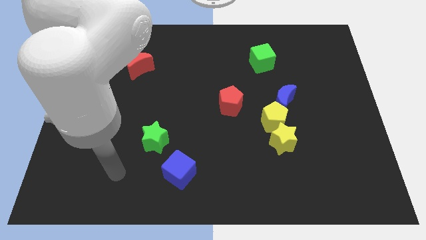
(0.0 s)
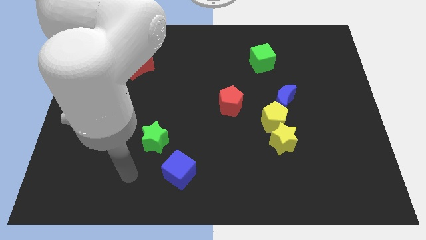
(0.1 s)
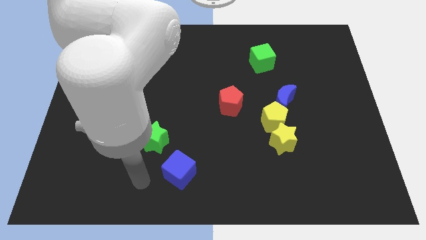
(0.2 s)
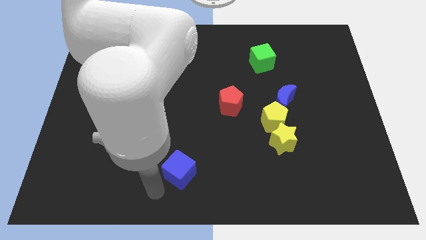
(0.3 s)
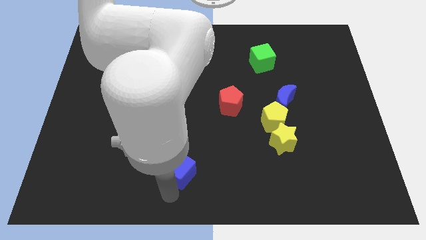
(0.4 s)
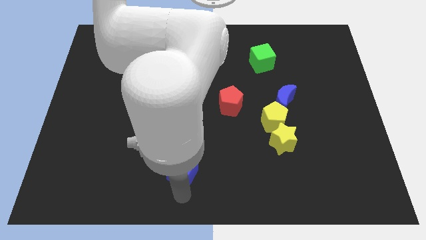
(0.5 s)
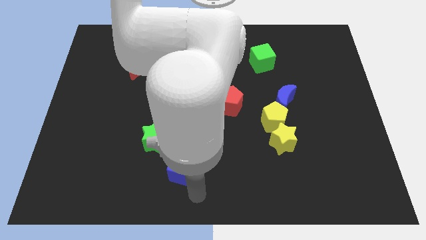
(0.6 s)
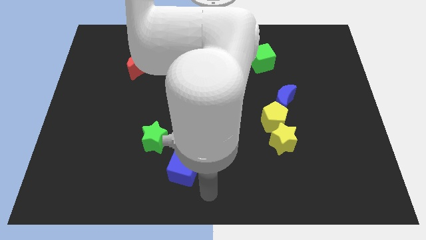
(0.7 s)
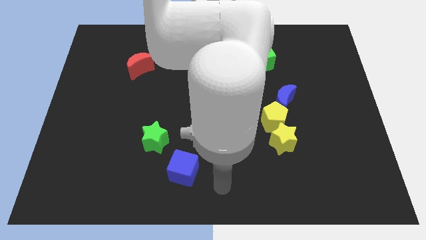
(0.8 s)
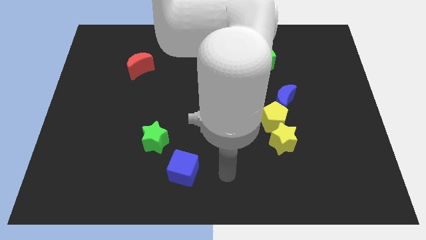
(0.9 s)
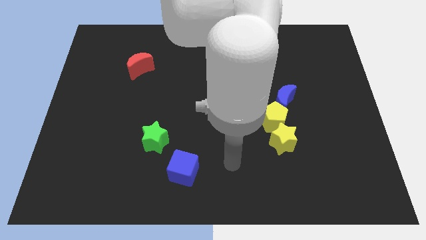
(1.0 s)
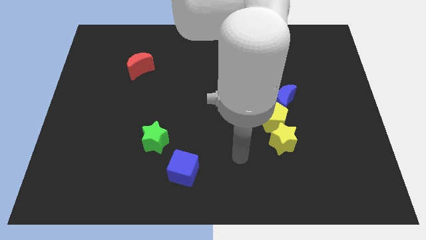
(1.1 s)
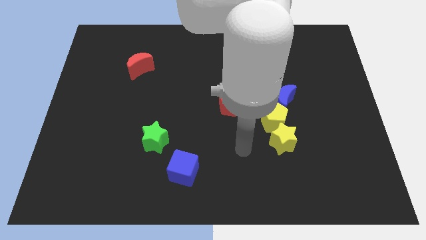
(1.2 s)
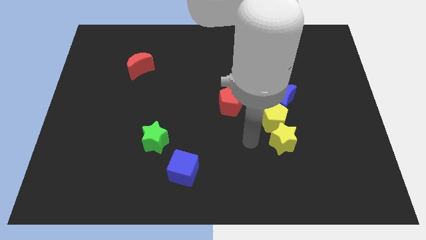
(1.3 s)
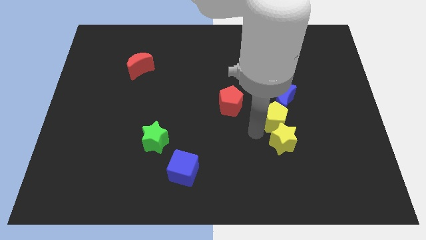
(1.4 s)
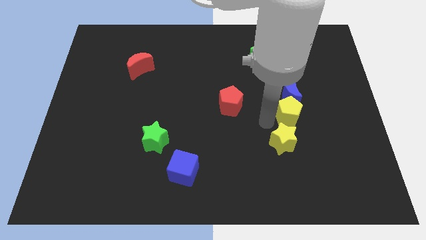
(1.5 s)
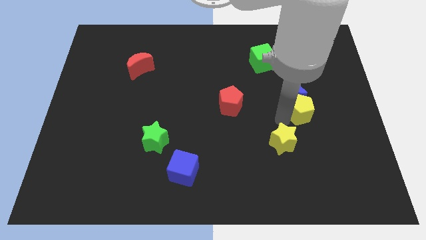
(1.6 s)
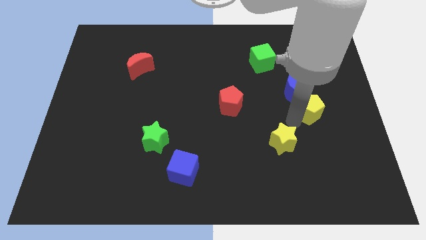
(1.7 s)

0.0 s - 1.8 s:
move the yellow star away from the yellow pentagon

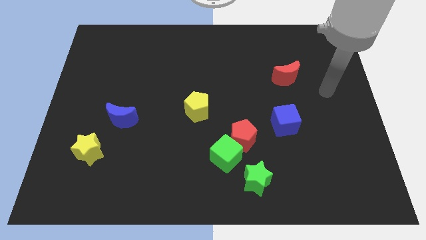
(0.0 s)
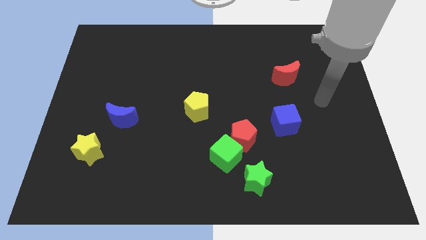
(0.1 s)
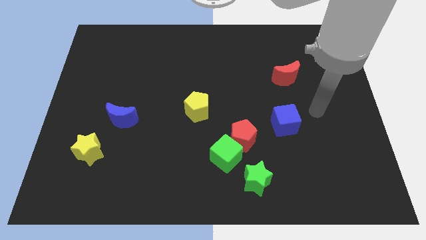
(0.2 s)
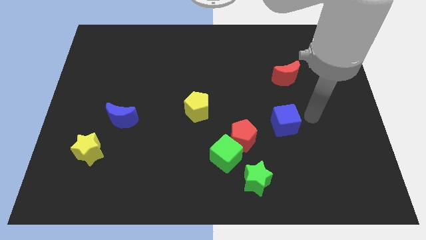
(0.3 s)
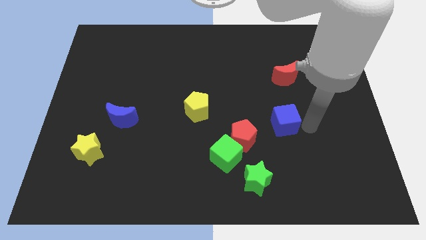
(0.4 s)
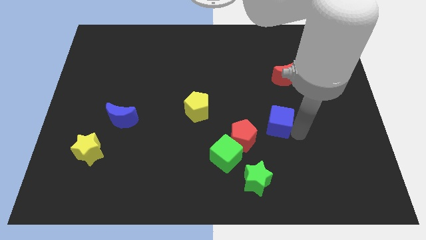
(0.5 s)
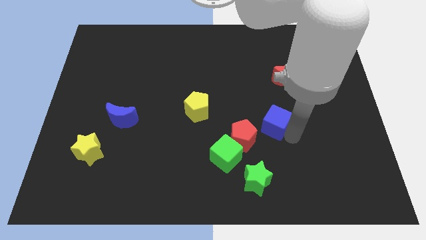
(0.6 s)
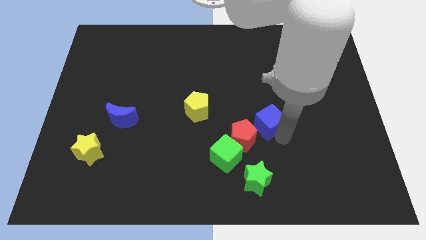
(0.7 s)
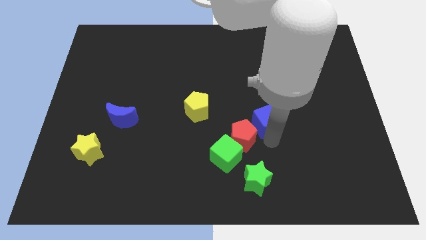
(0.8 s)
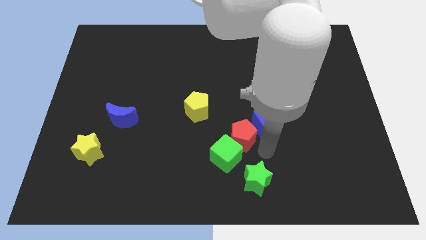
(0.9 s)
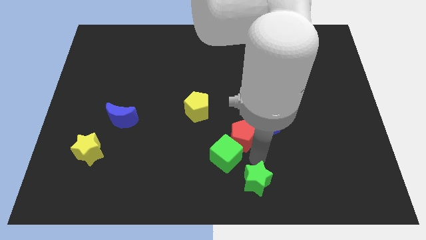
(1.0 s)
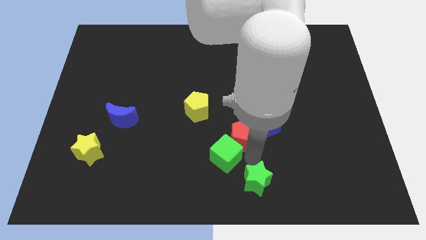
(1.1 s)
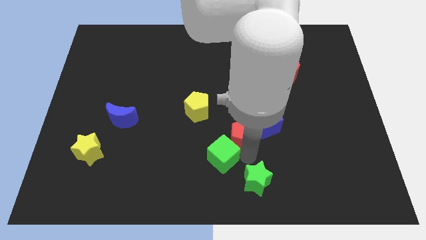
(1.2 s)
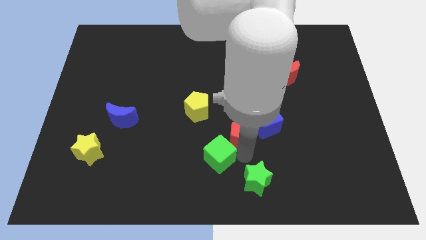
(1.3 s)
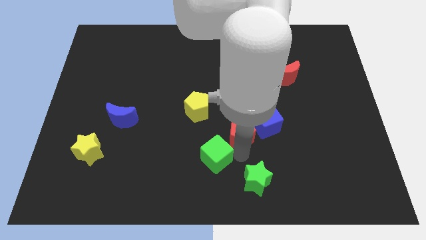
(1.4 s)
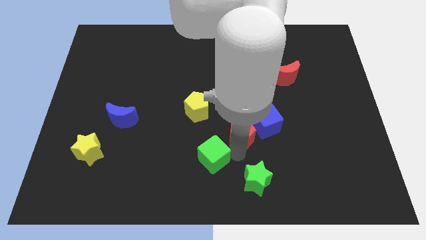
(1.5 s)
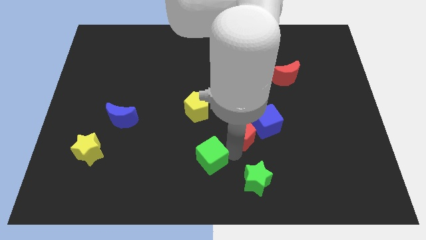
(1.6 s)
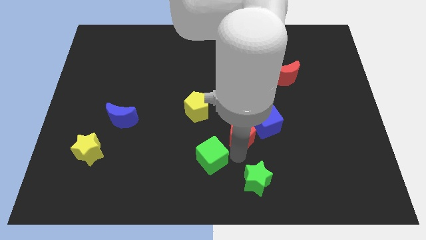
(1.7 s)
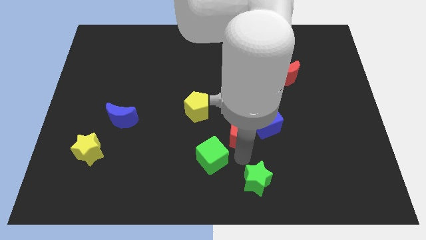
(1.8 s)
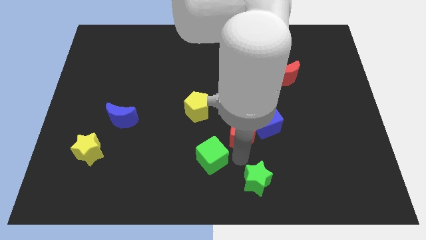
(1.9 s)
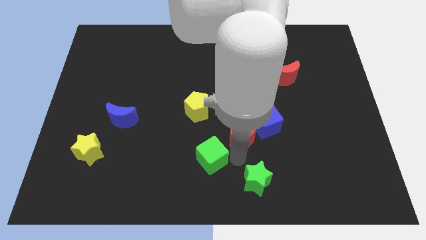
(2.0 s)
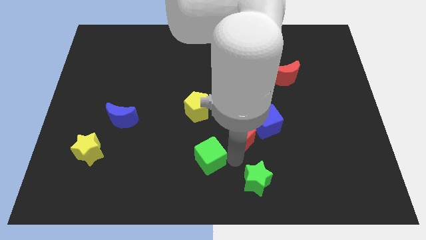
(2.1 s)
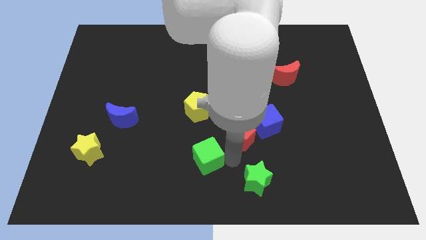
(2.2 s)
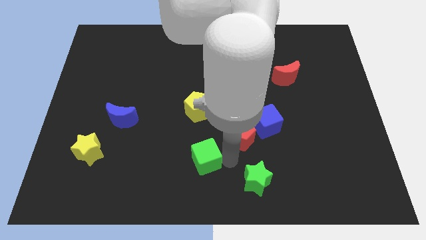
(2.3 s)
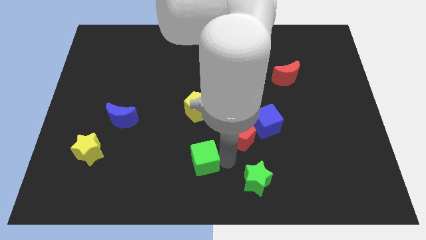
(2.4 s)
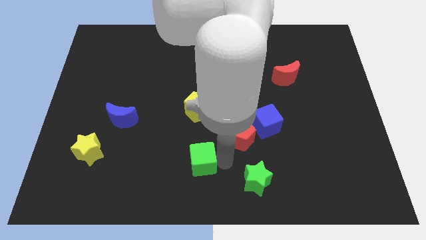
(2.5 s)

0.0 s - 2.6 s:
separate the green cube from the red pentagon and green star

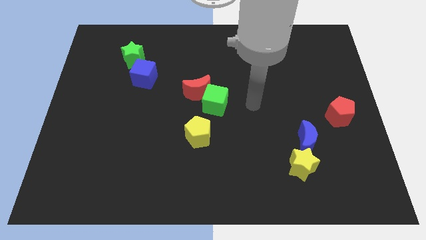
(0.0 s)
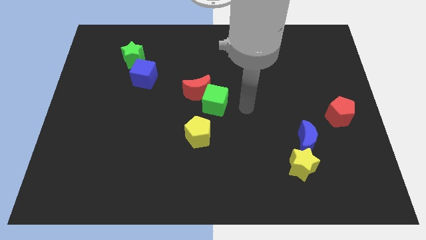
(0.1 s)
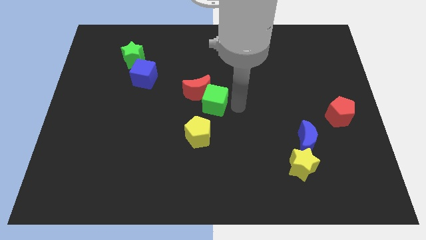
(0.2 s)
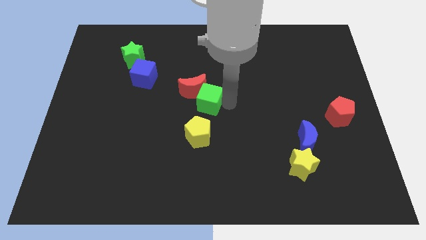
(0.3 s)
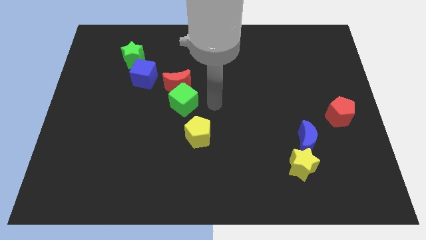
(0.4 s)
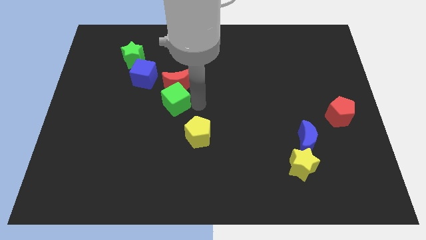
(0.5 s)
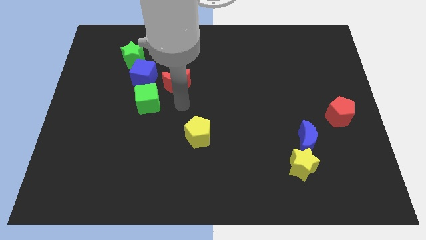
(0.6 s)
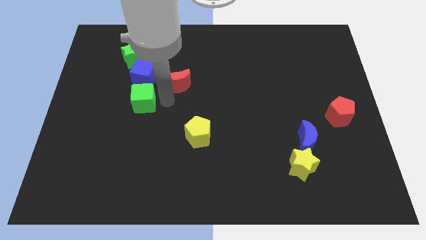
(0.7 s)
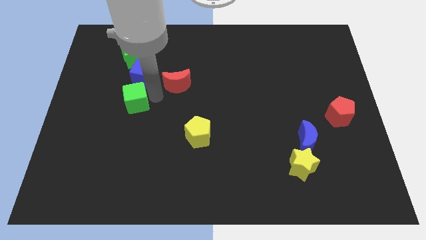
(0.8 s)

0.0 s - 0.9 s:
move the red moon away from the green cube

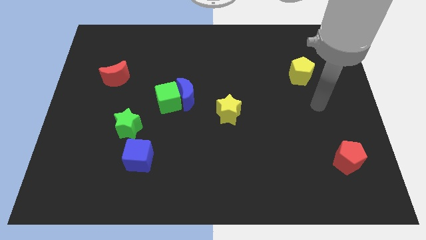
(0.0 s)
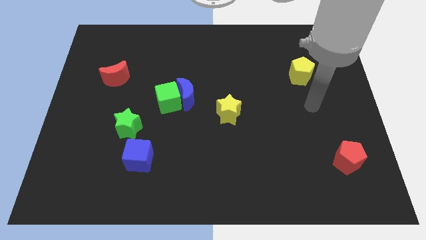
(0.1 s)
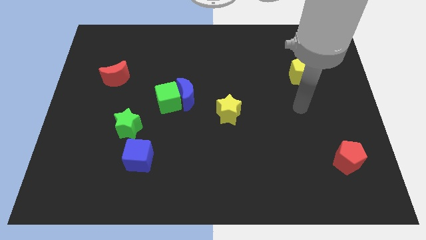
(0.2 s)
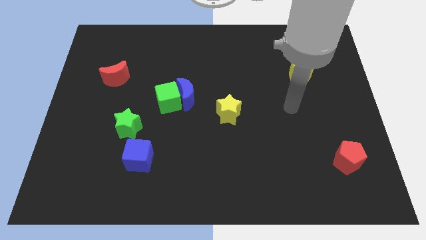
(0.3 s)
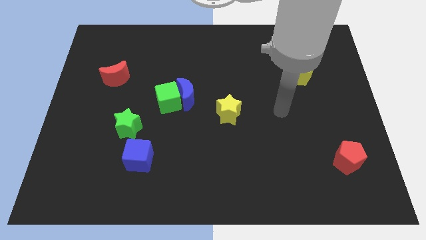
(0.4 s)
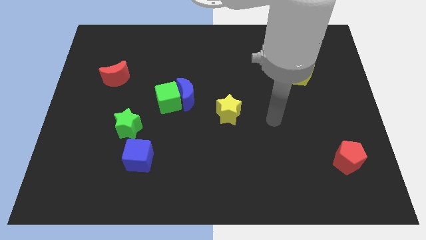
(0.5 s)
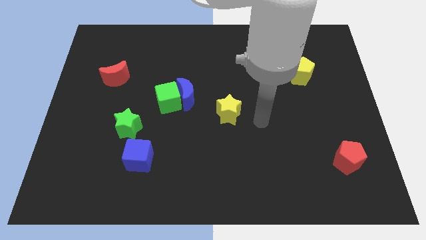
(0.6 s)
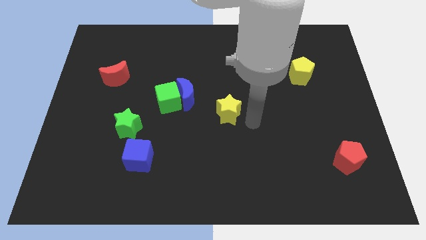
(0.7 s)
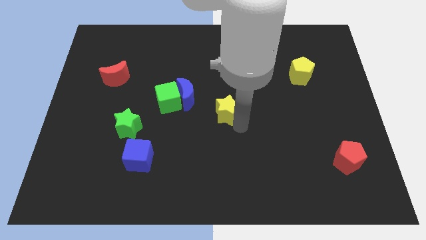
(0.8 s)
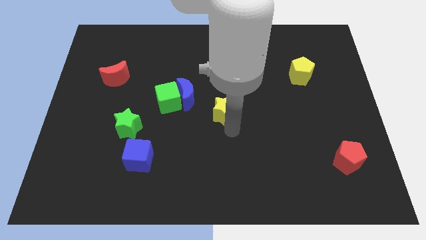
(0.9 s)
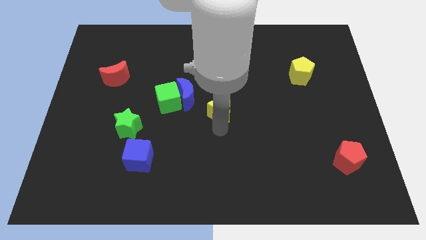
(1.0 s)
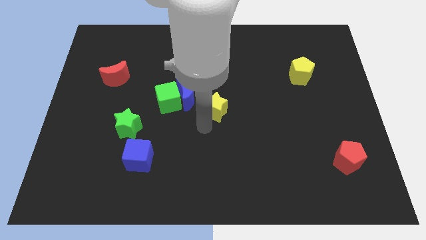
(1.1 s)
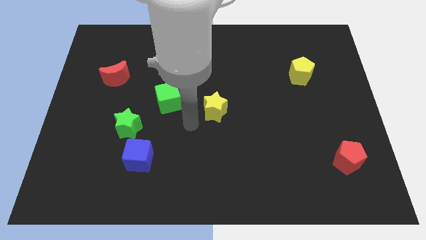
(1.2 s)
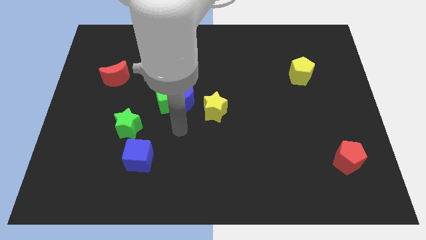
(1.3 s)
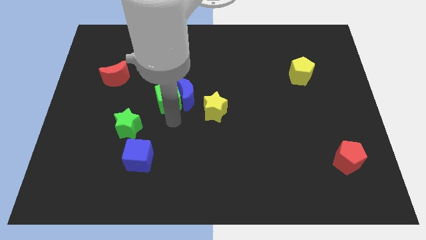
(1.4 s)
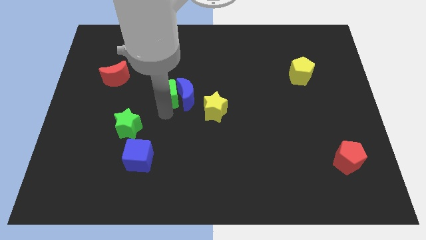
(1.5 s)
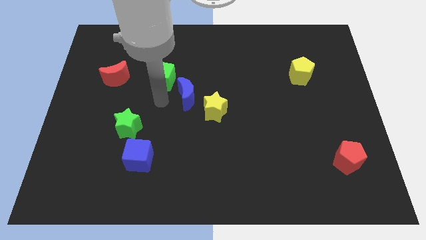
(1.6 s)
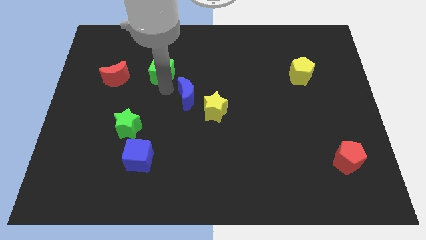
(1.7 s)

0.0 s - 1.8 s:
separate the blue moon from the green cube

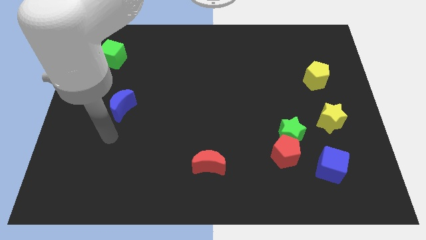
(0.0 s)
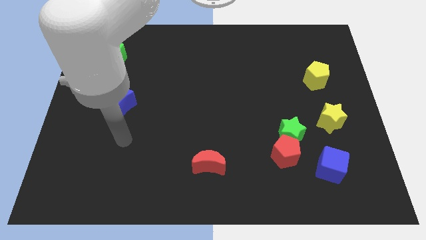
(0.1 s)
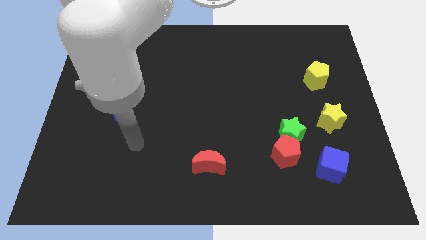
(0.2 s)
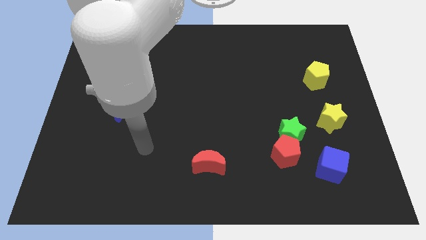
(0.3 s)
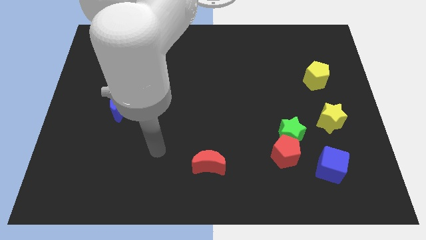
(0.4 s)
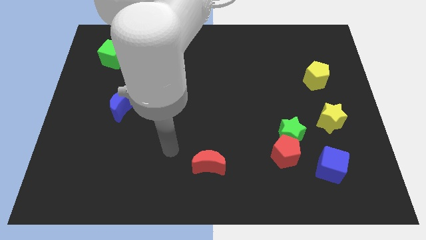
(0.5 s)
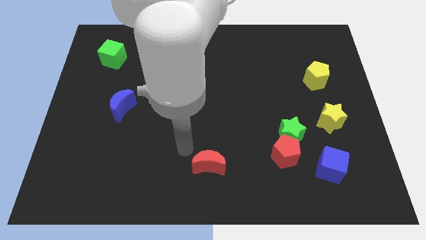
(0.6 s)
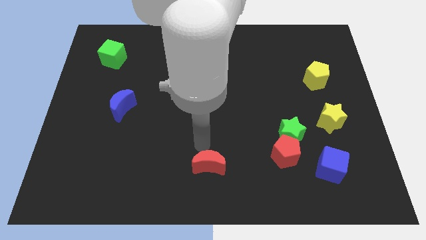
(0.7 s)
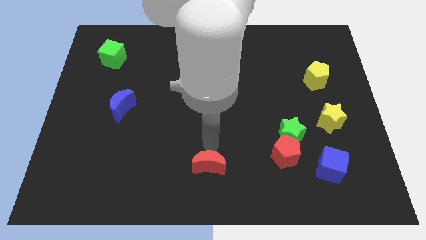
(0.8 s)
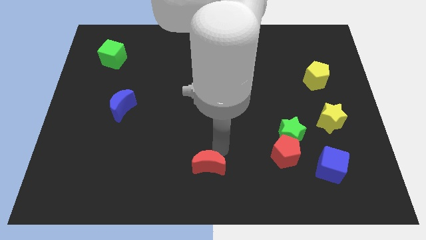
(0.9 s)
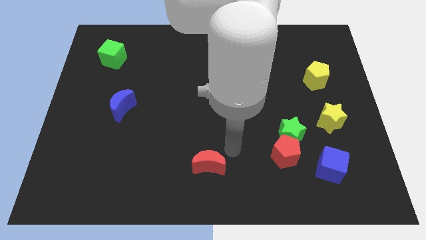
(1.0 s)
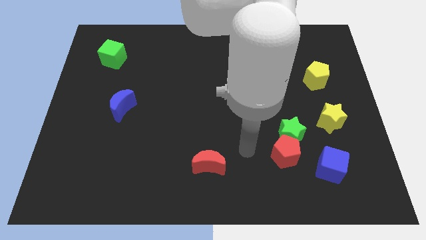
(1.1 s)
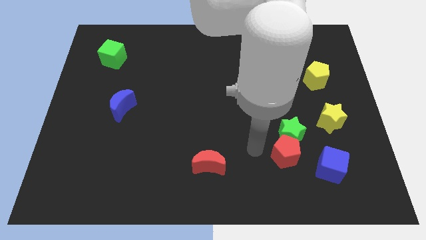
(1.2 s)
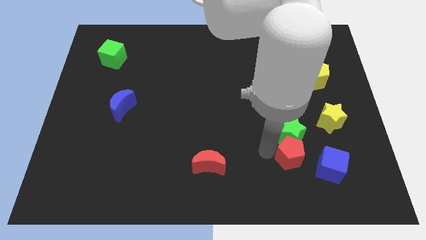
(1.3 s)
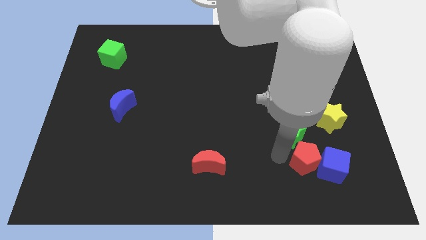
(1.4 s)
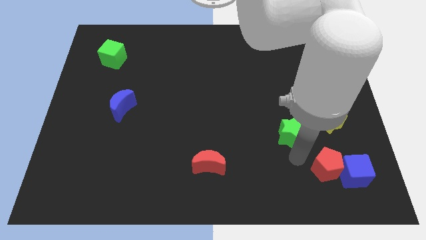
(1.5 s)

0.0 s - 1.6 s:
pull the green star apart from the red pentagon

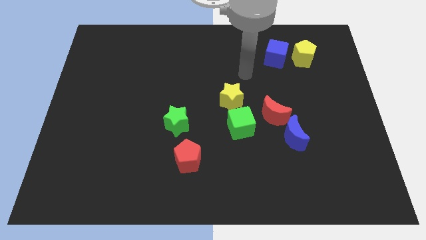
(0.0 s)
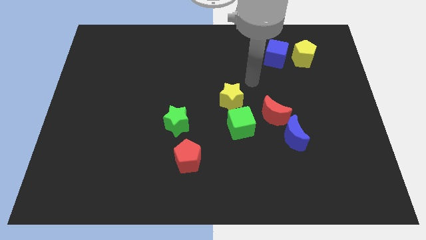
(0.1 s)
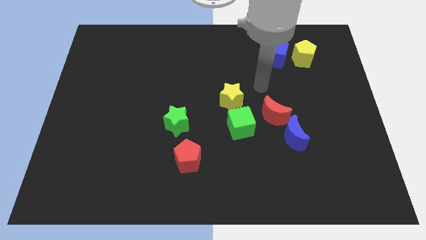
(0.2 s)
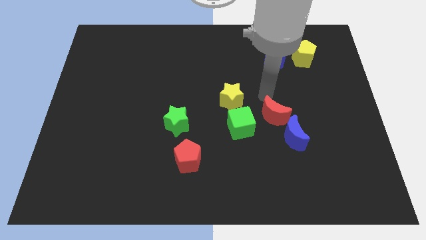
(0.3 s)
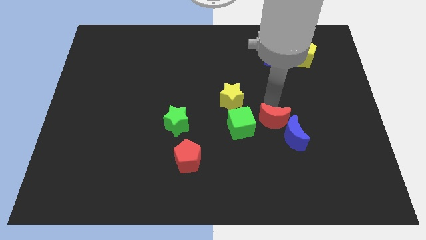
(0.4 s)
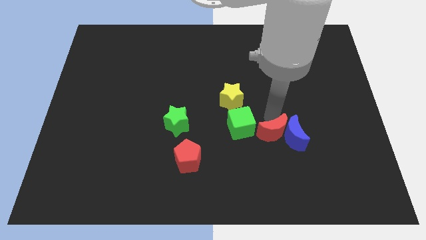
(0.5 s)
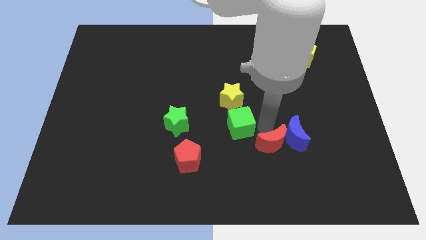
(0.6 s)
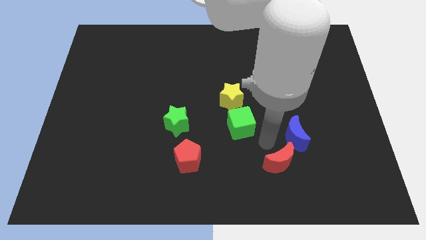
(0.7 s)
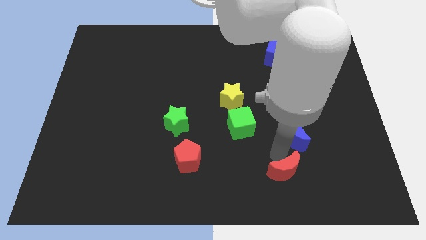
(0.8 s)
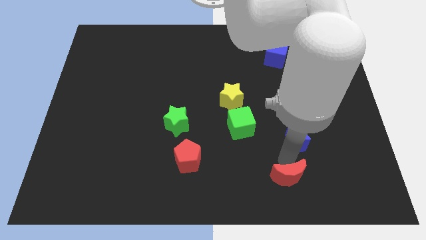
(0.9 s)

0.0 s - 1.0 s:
move the blue moon away from the red moon
